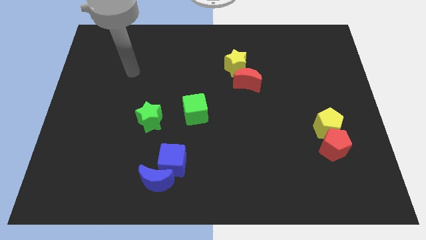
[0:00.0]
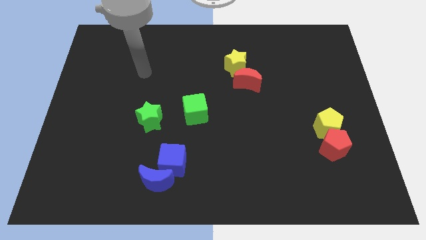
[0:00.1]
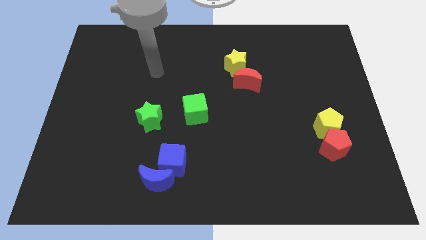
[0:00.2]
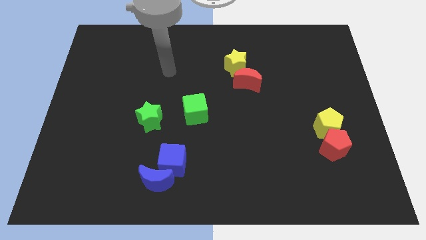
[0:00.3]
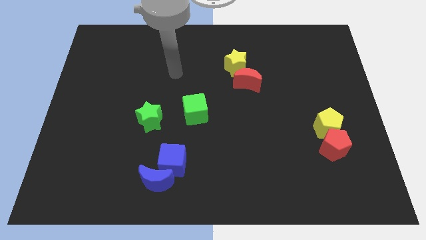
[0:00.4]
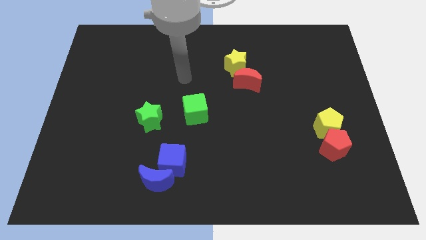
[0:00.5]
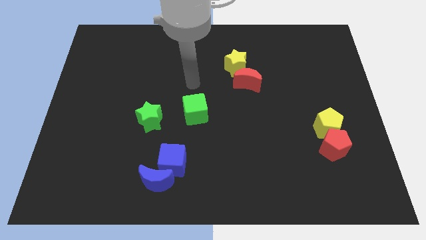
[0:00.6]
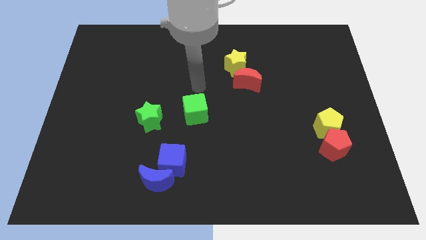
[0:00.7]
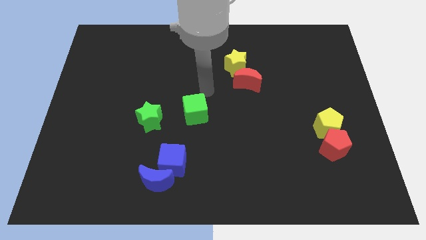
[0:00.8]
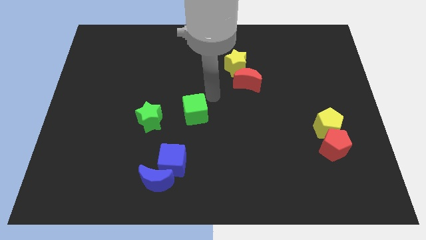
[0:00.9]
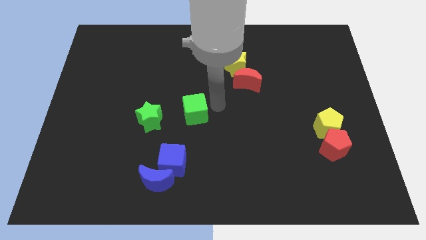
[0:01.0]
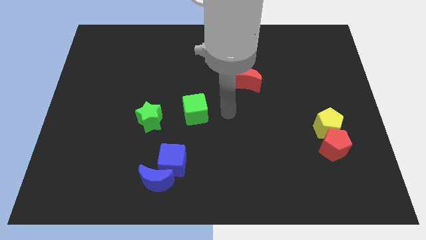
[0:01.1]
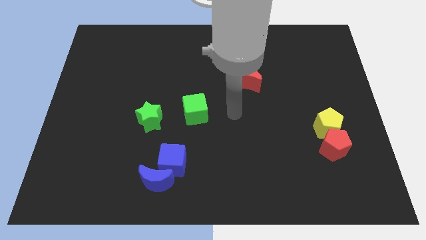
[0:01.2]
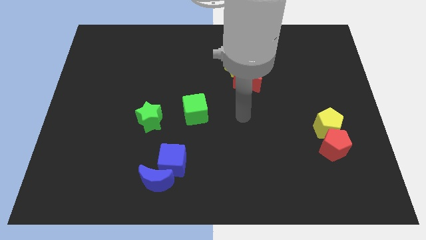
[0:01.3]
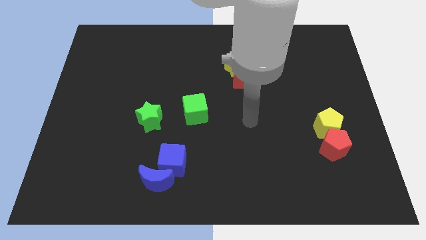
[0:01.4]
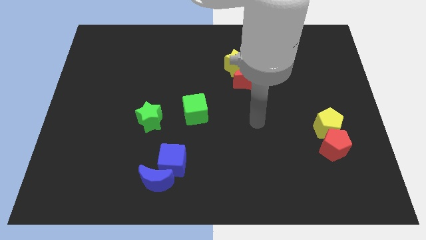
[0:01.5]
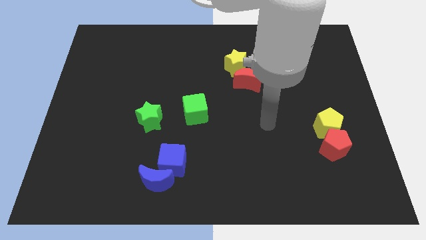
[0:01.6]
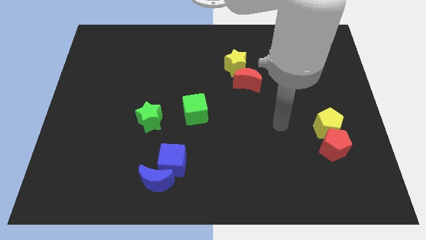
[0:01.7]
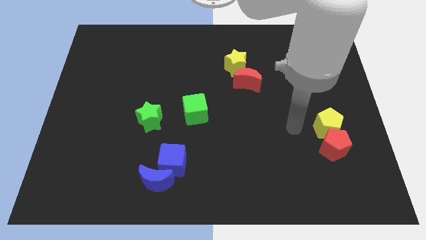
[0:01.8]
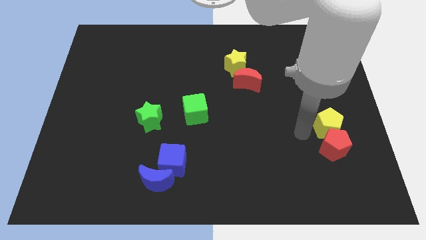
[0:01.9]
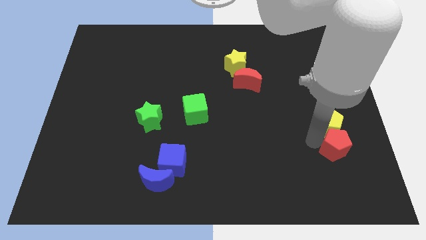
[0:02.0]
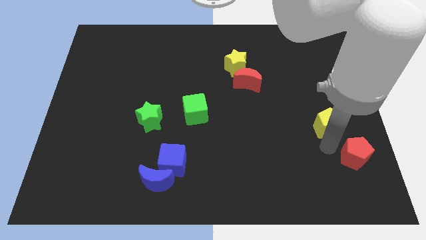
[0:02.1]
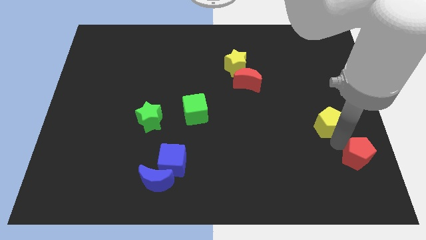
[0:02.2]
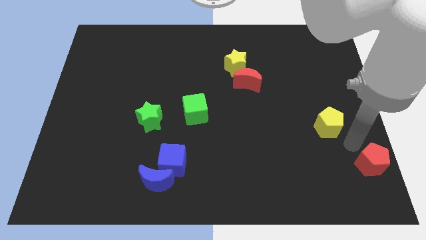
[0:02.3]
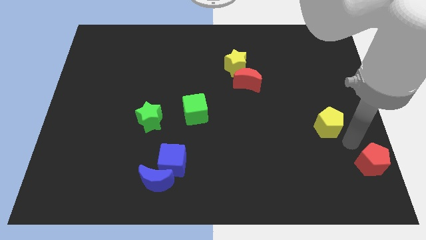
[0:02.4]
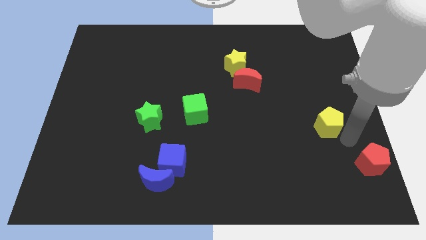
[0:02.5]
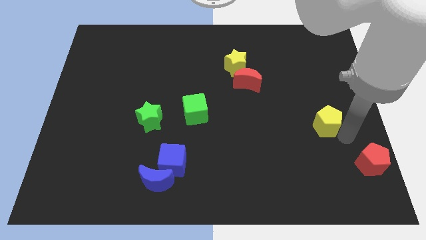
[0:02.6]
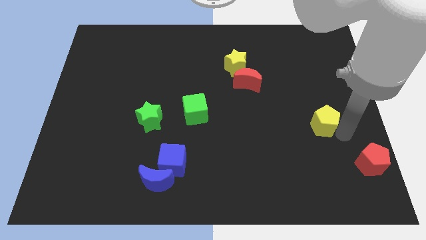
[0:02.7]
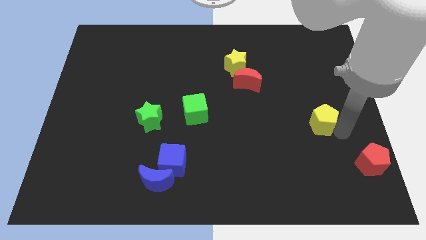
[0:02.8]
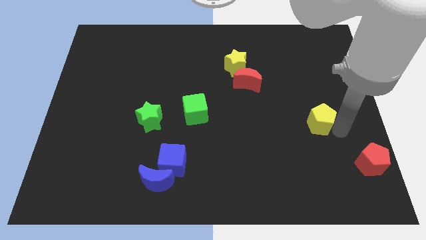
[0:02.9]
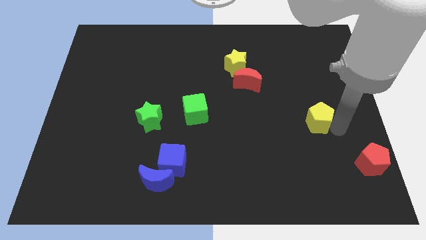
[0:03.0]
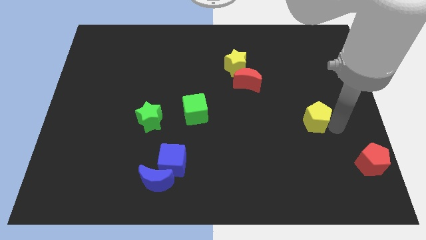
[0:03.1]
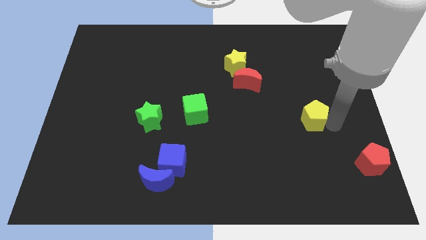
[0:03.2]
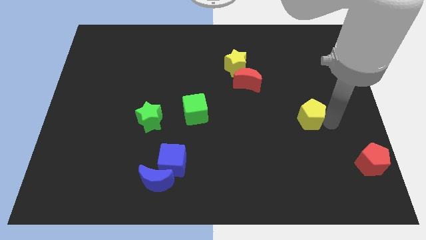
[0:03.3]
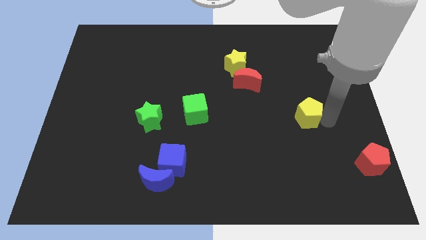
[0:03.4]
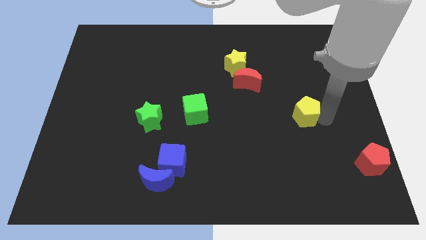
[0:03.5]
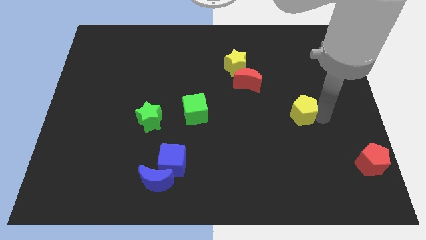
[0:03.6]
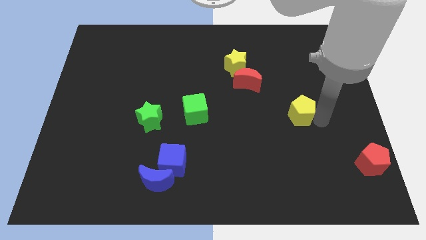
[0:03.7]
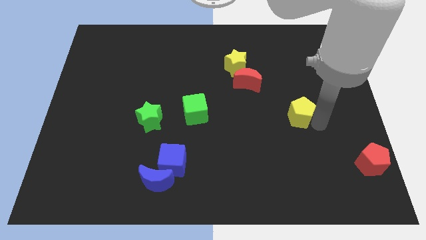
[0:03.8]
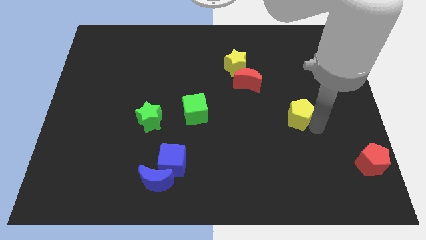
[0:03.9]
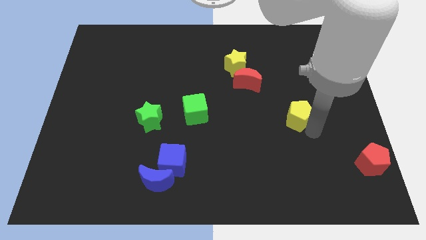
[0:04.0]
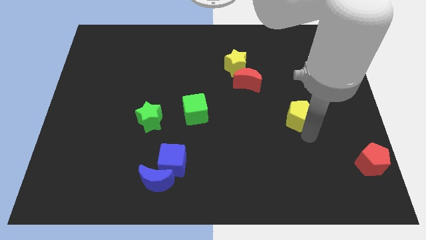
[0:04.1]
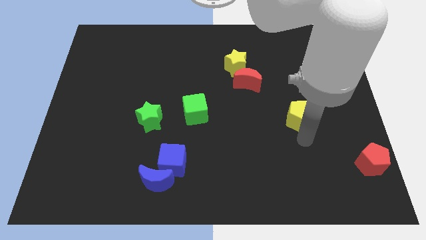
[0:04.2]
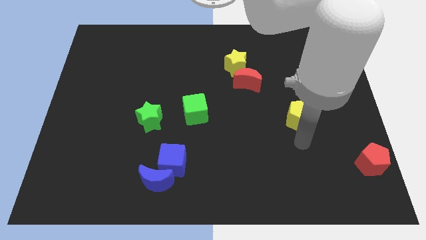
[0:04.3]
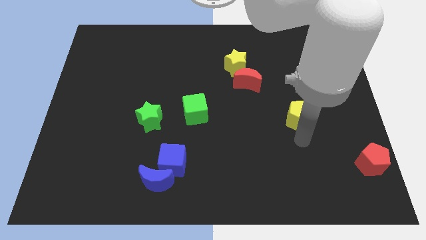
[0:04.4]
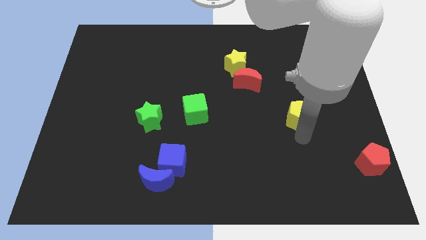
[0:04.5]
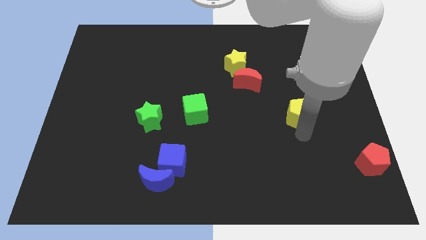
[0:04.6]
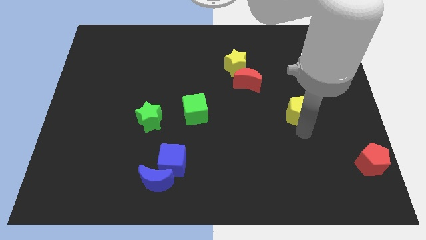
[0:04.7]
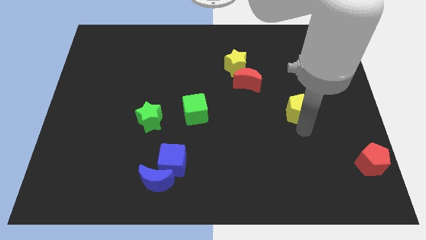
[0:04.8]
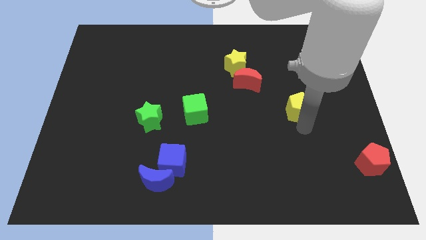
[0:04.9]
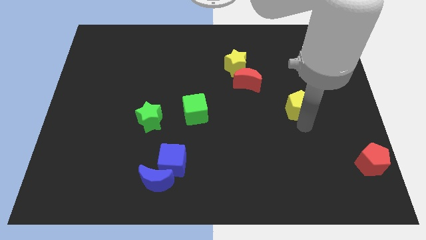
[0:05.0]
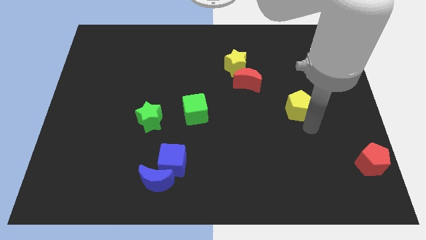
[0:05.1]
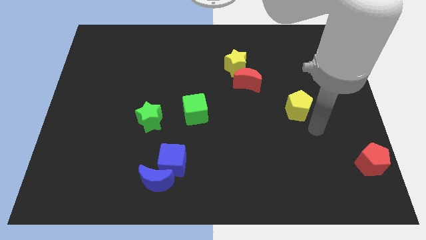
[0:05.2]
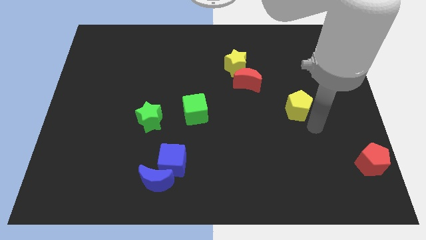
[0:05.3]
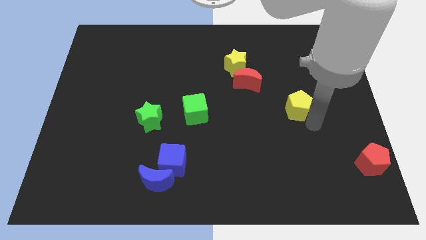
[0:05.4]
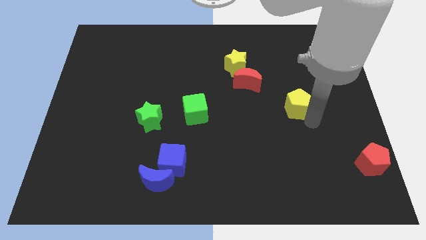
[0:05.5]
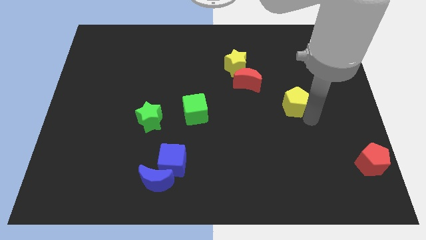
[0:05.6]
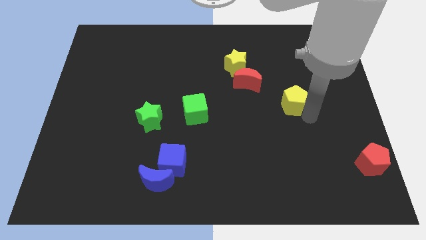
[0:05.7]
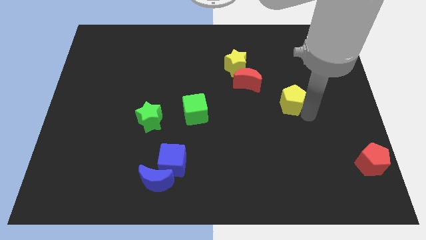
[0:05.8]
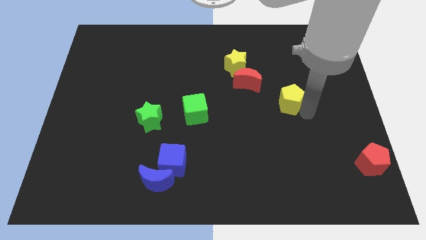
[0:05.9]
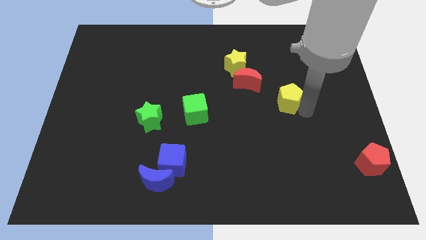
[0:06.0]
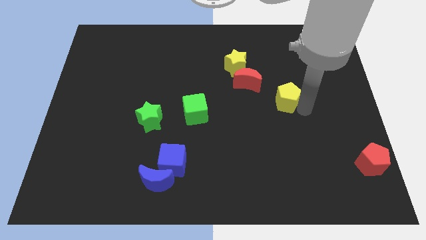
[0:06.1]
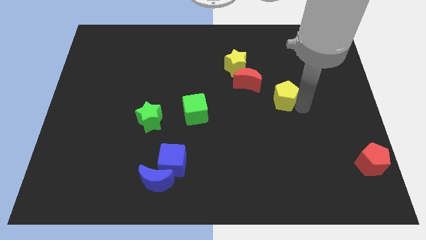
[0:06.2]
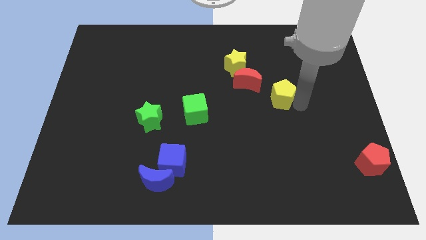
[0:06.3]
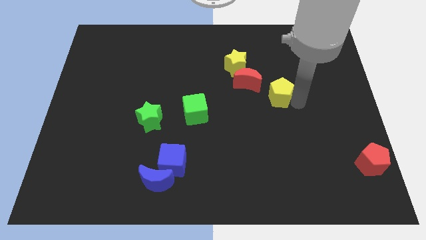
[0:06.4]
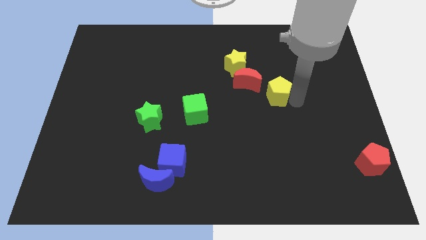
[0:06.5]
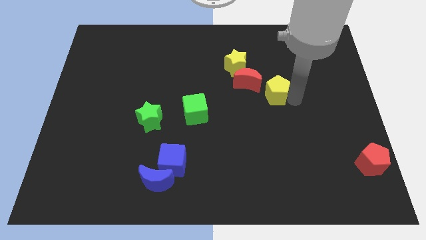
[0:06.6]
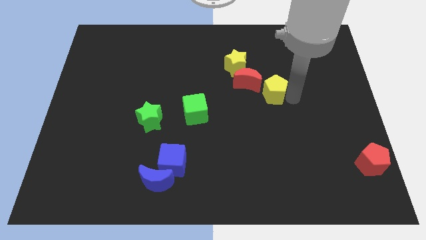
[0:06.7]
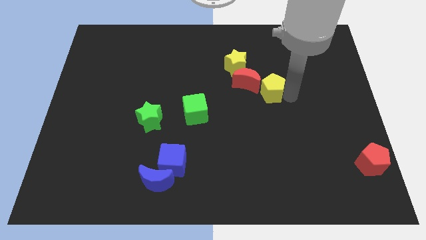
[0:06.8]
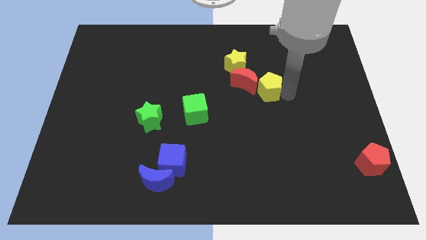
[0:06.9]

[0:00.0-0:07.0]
push the yellow pentagon next to the red moon
